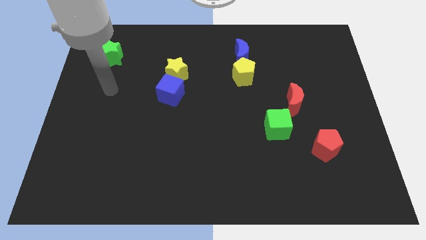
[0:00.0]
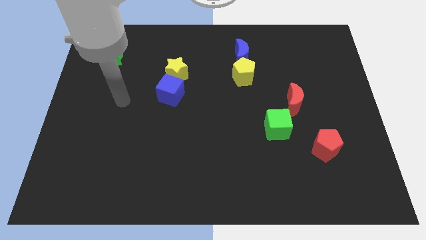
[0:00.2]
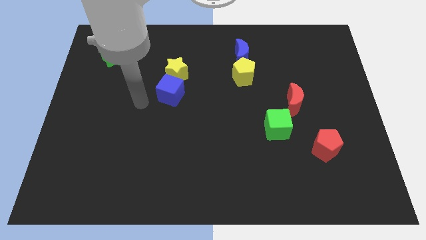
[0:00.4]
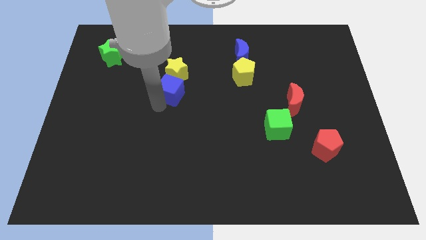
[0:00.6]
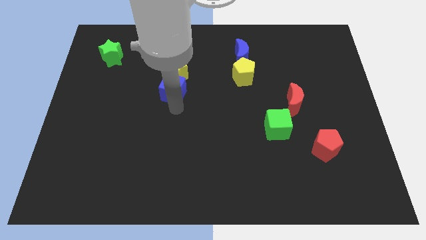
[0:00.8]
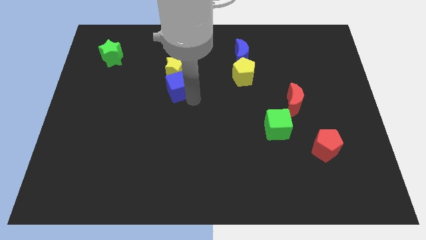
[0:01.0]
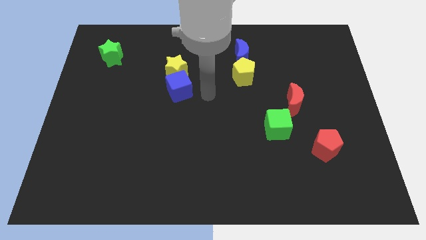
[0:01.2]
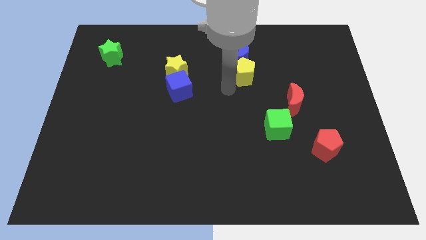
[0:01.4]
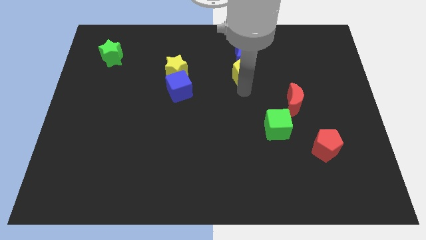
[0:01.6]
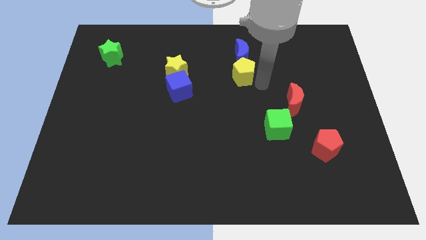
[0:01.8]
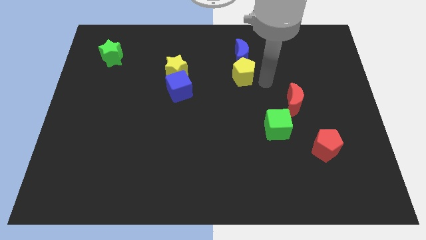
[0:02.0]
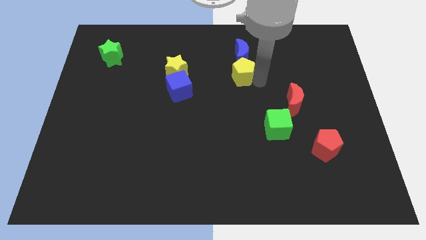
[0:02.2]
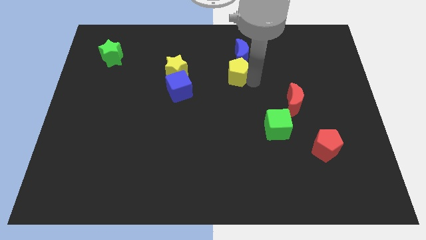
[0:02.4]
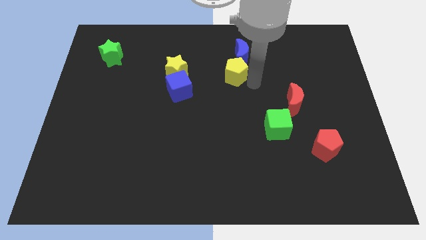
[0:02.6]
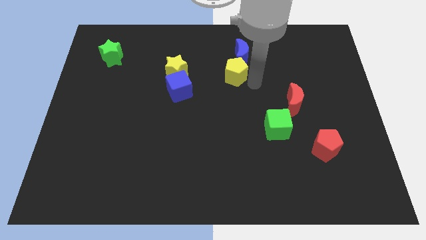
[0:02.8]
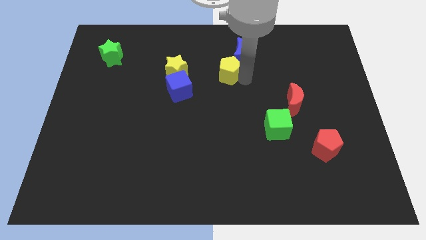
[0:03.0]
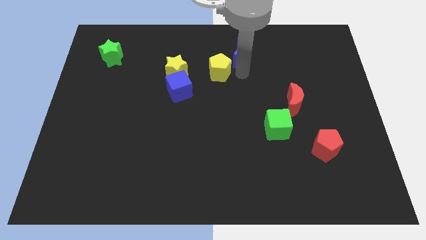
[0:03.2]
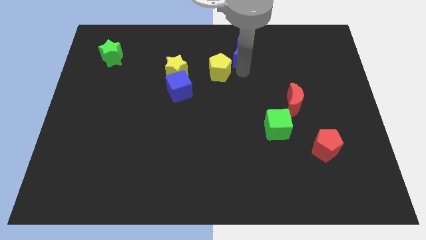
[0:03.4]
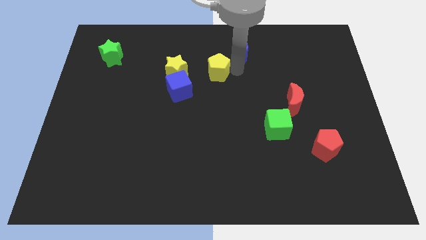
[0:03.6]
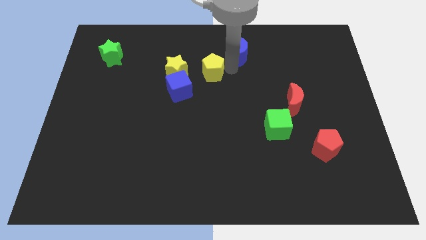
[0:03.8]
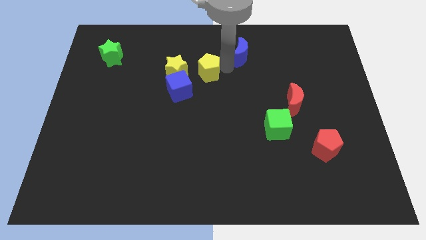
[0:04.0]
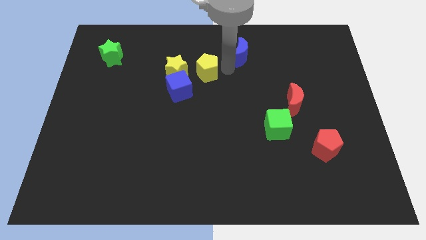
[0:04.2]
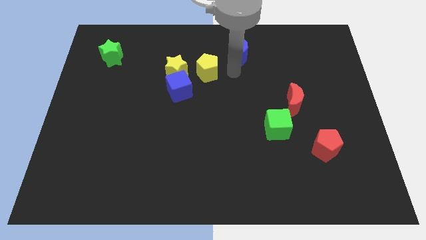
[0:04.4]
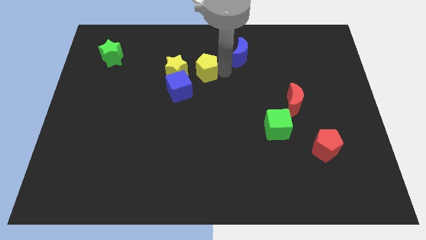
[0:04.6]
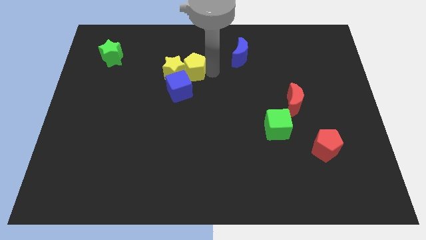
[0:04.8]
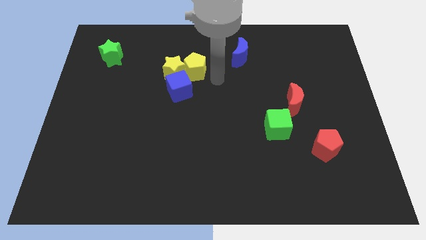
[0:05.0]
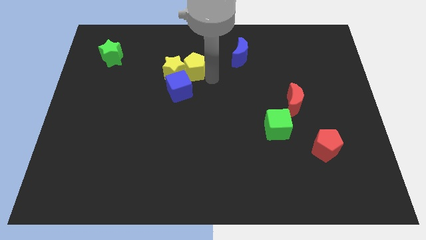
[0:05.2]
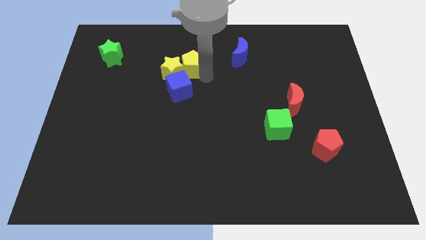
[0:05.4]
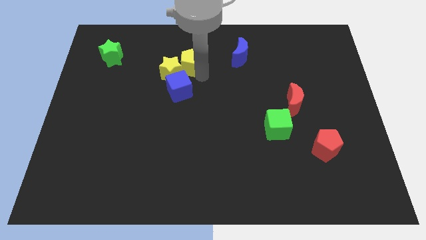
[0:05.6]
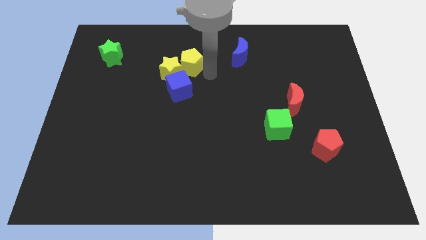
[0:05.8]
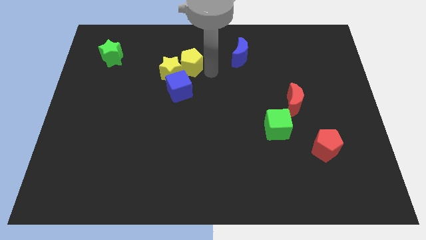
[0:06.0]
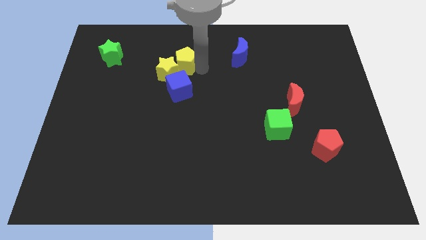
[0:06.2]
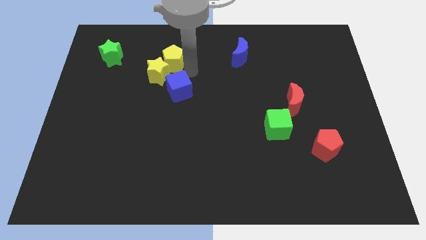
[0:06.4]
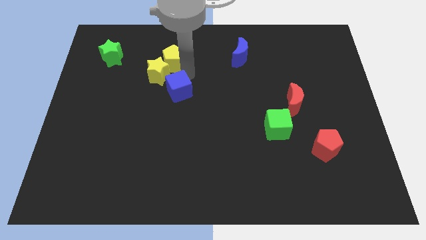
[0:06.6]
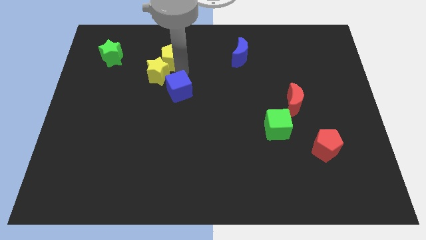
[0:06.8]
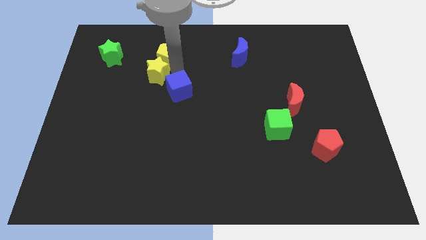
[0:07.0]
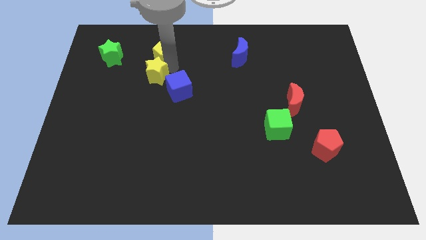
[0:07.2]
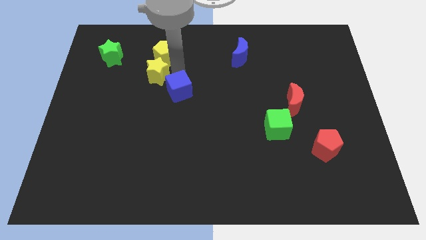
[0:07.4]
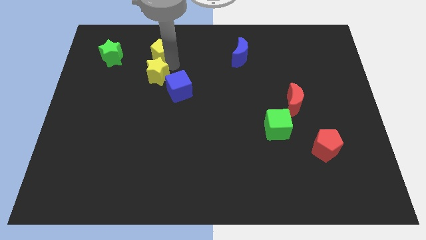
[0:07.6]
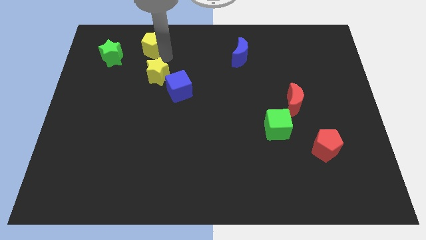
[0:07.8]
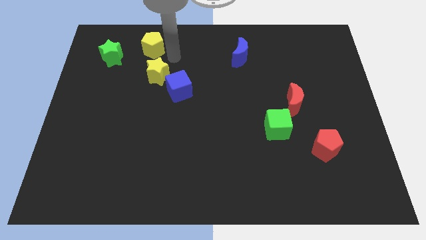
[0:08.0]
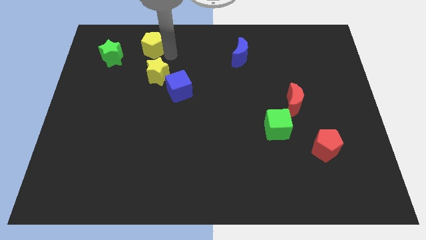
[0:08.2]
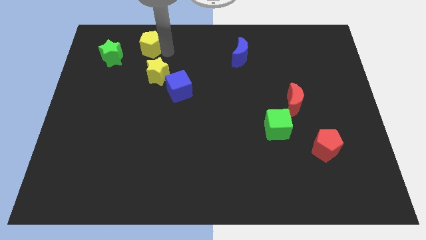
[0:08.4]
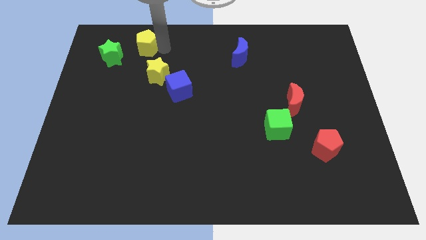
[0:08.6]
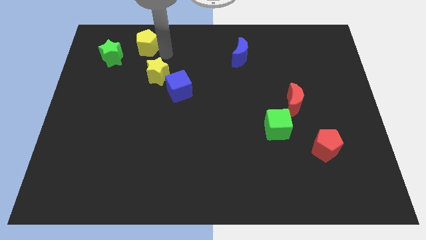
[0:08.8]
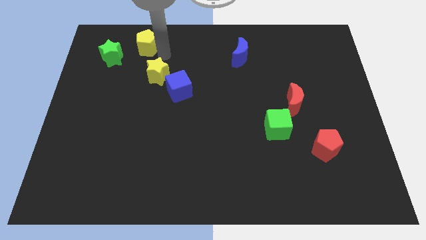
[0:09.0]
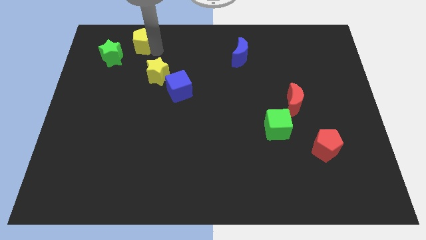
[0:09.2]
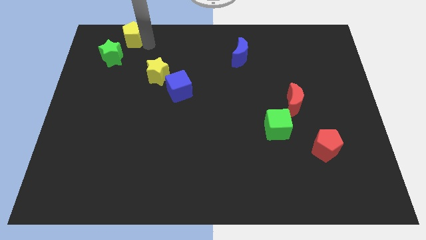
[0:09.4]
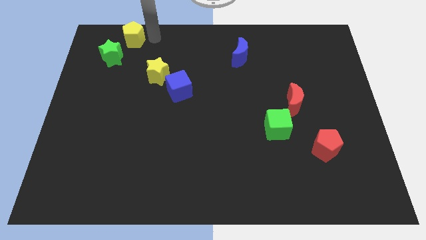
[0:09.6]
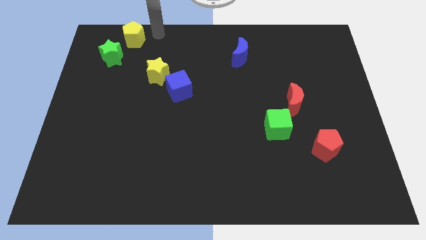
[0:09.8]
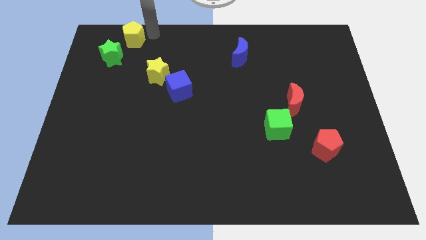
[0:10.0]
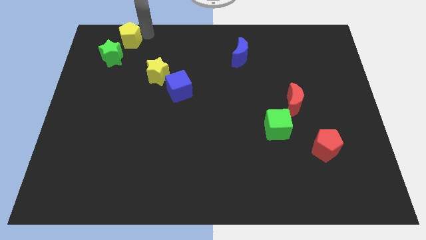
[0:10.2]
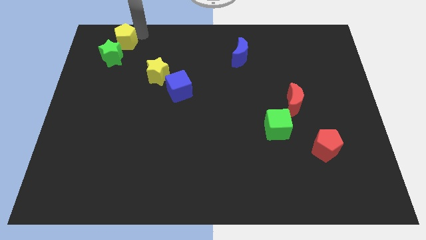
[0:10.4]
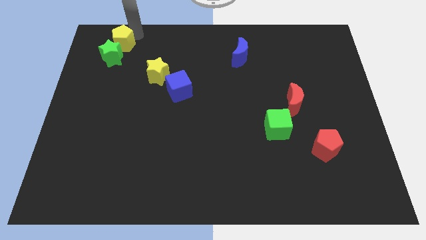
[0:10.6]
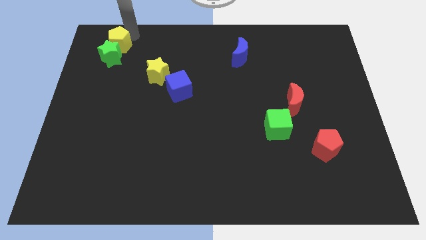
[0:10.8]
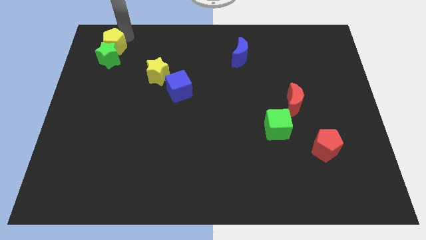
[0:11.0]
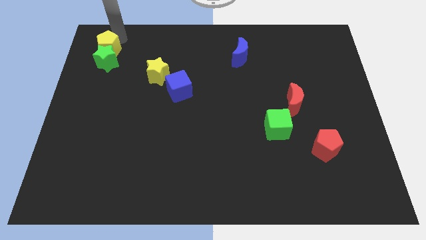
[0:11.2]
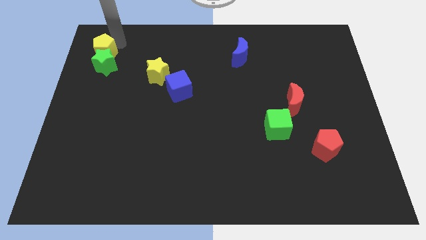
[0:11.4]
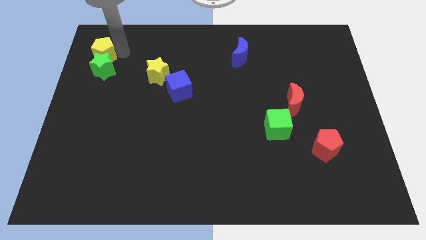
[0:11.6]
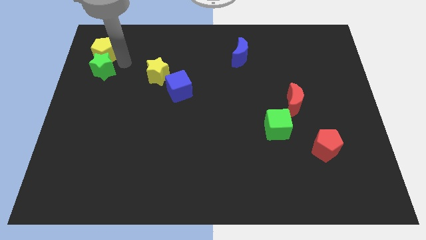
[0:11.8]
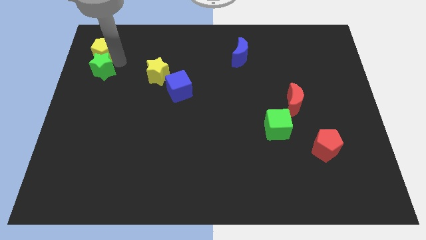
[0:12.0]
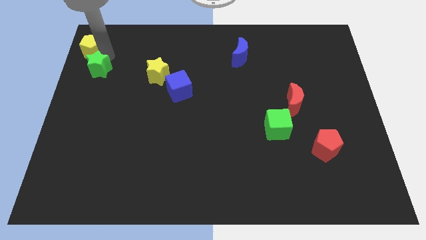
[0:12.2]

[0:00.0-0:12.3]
slide the yellow pentagon to the top left corner
